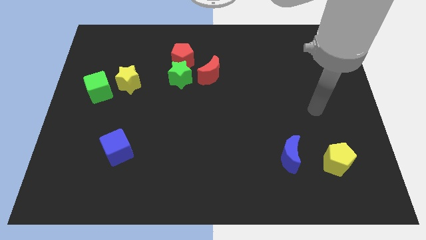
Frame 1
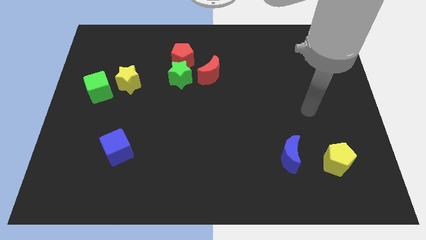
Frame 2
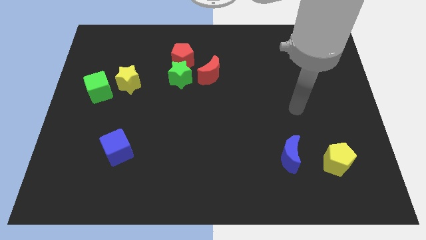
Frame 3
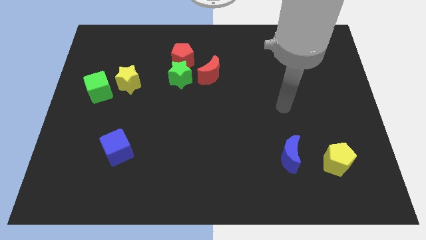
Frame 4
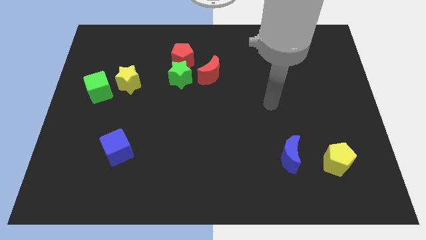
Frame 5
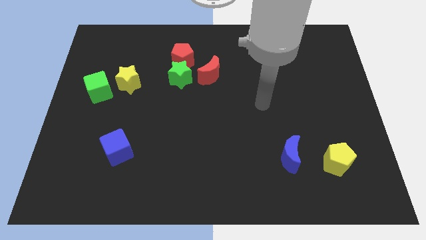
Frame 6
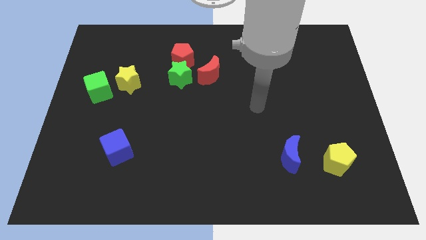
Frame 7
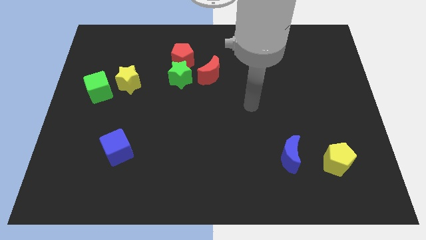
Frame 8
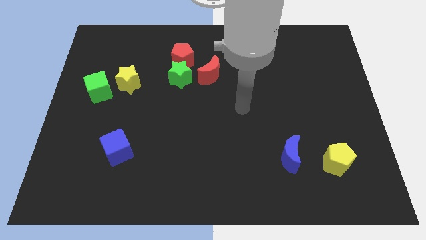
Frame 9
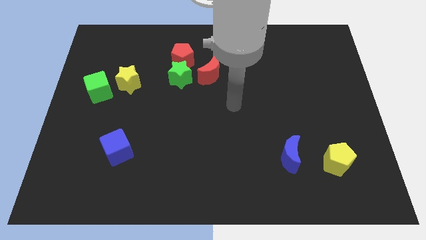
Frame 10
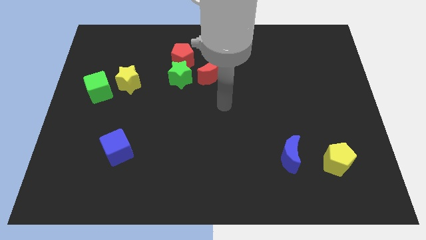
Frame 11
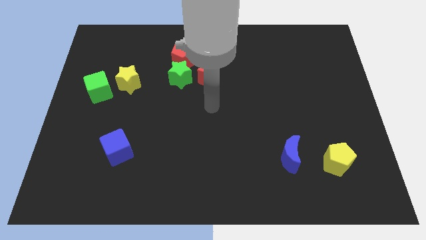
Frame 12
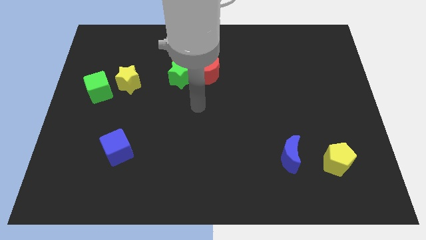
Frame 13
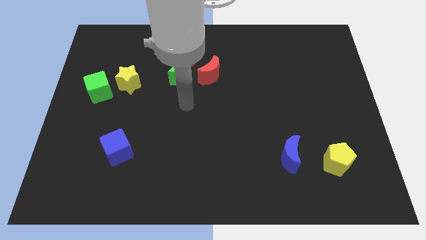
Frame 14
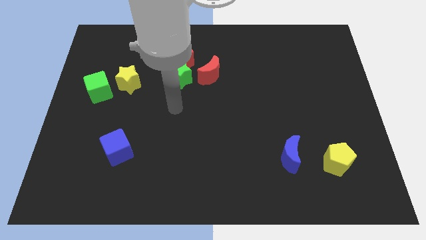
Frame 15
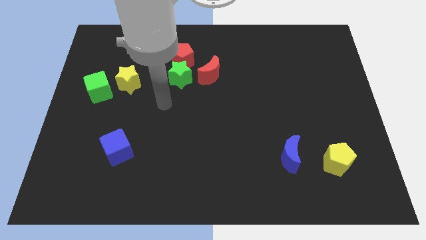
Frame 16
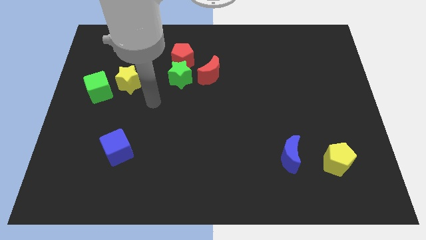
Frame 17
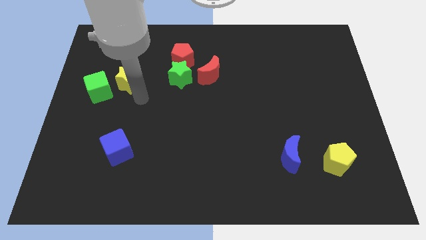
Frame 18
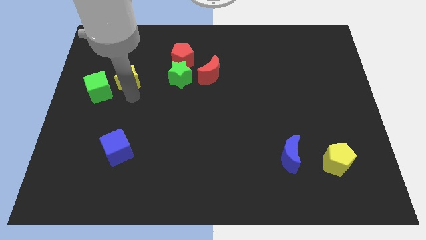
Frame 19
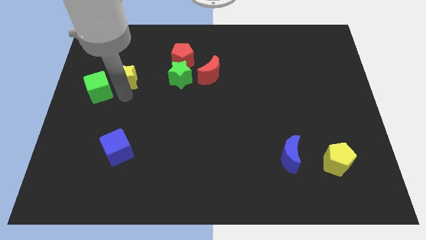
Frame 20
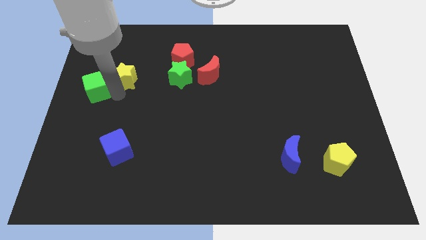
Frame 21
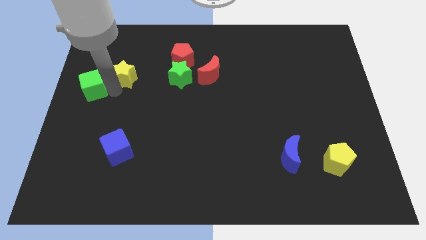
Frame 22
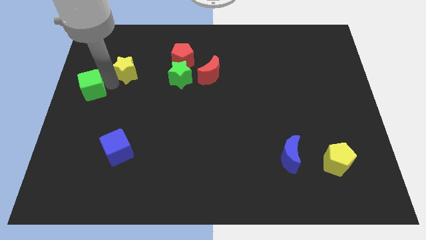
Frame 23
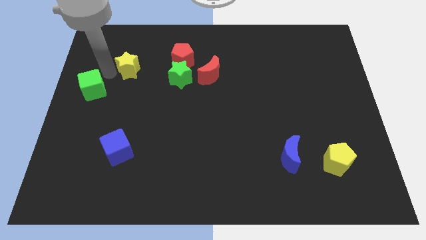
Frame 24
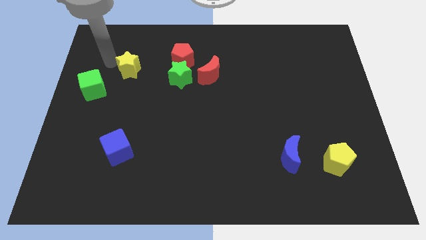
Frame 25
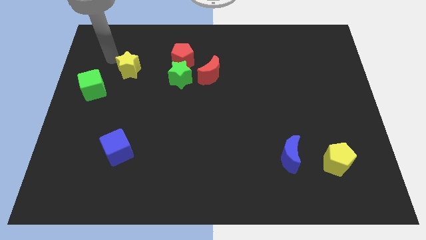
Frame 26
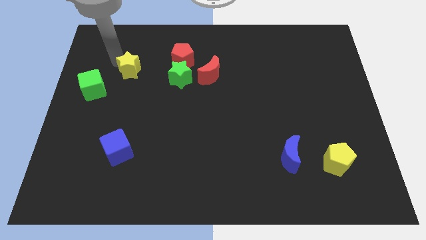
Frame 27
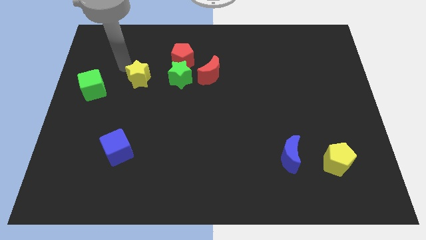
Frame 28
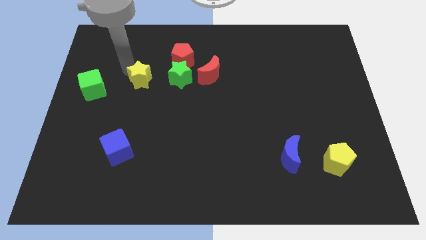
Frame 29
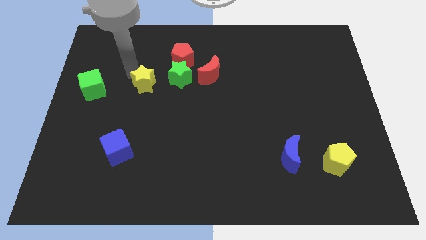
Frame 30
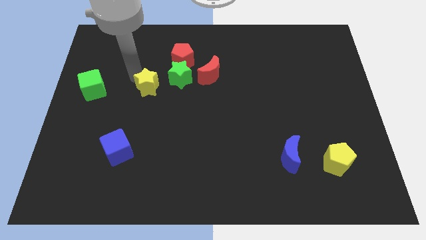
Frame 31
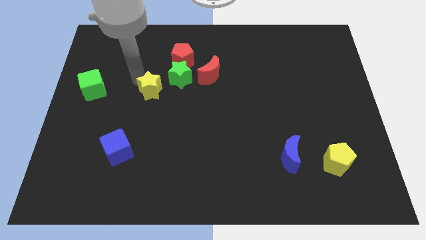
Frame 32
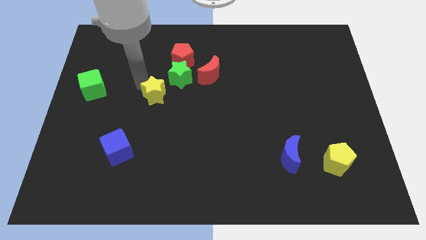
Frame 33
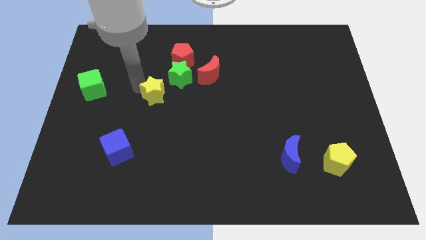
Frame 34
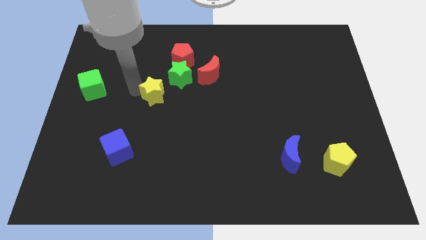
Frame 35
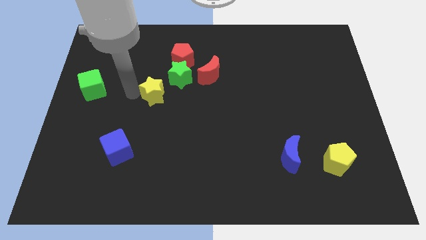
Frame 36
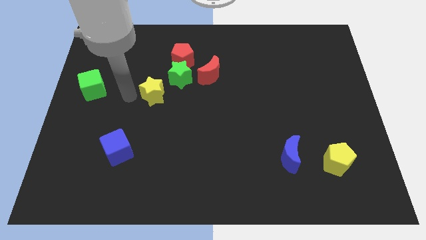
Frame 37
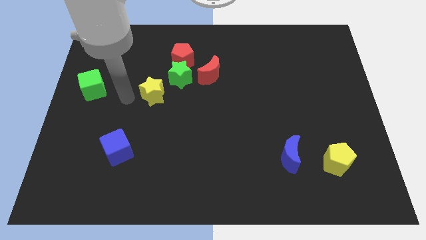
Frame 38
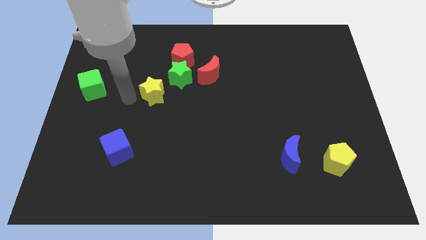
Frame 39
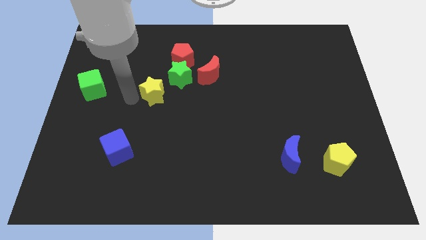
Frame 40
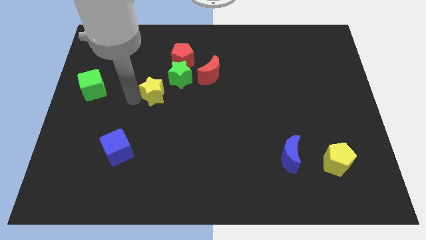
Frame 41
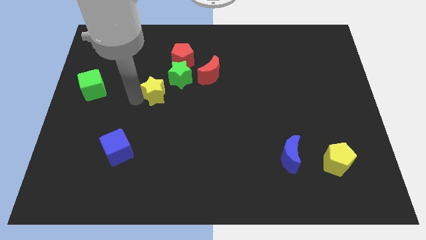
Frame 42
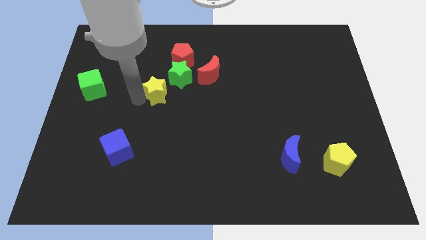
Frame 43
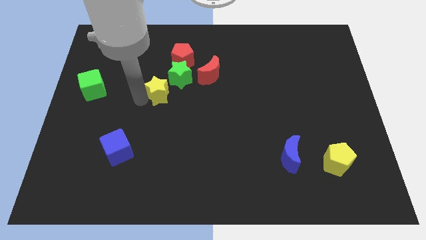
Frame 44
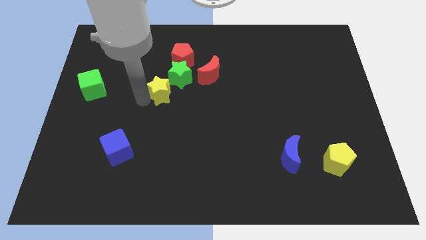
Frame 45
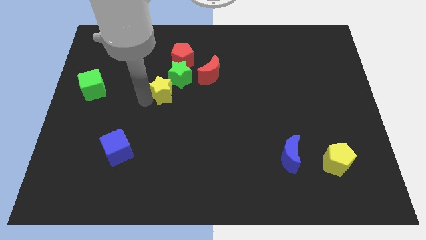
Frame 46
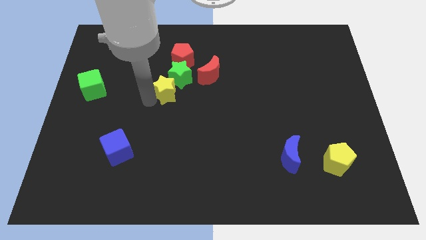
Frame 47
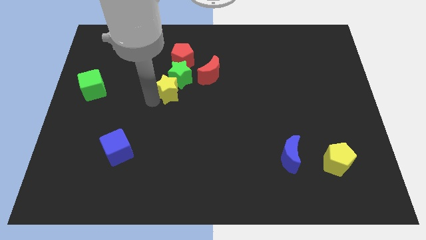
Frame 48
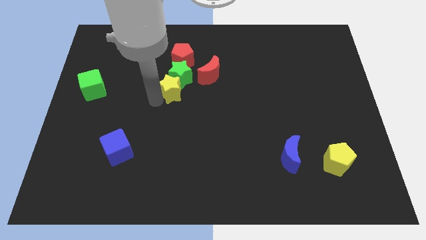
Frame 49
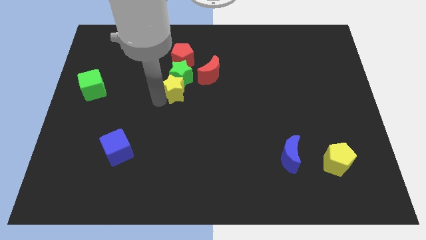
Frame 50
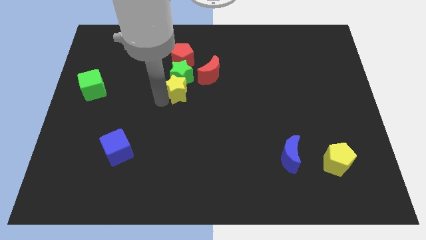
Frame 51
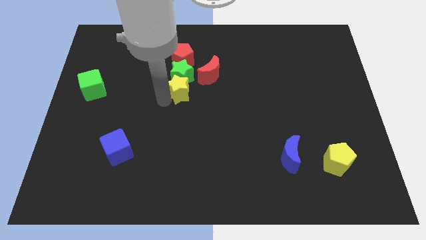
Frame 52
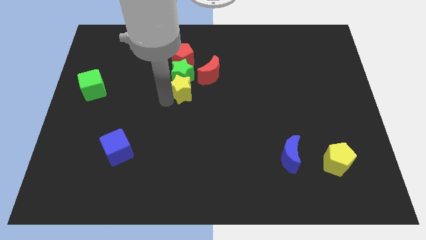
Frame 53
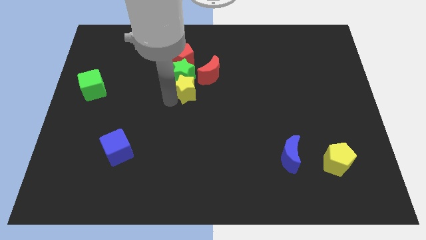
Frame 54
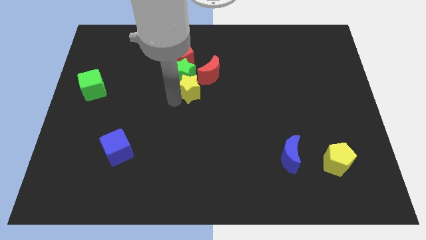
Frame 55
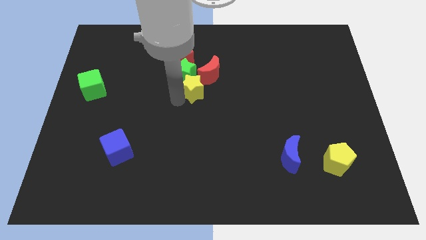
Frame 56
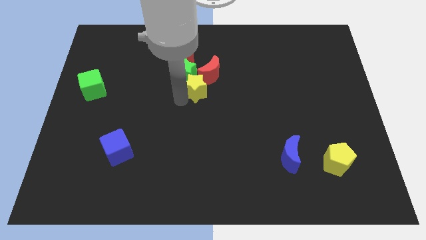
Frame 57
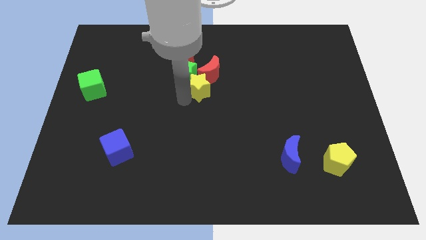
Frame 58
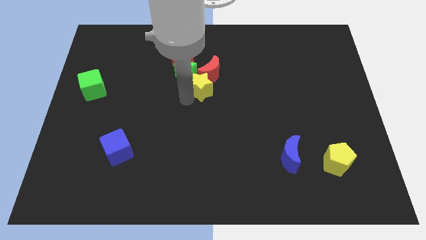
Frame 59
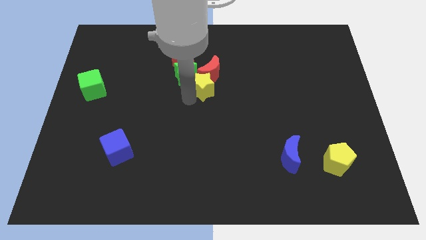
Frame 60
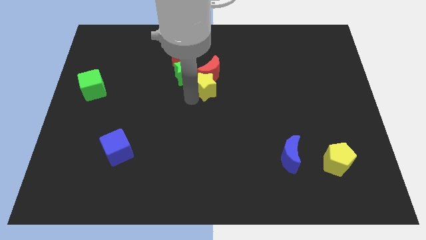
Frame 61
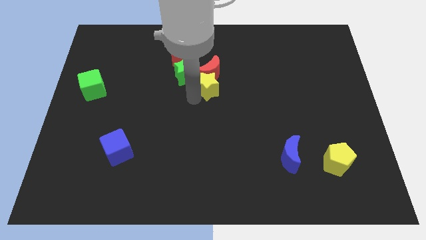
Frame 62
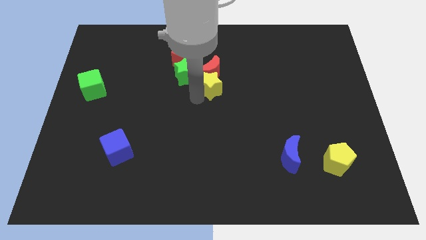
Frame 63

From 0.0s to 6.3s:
move the yellow star right

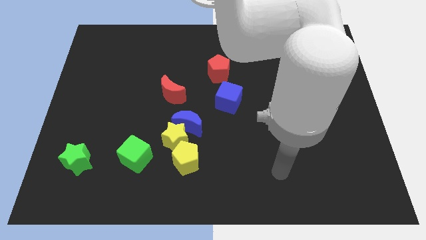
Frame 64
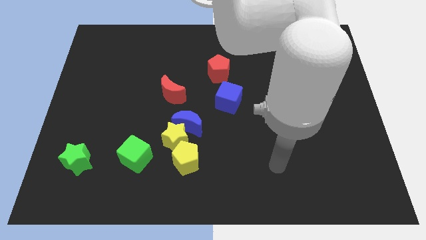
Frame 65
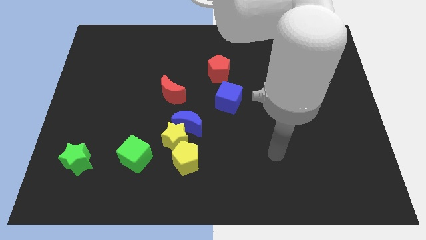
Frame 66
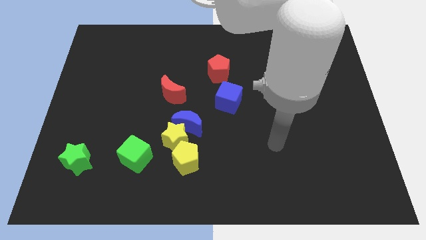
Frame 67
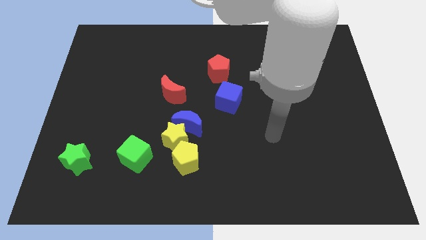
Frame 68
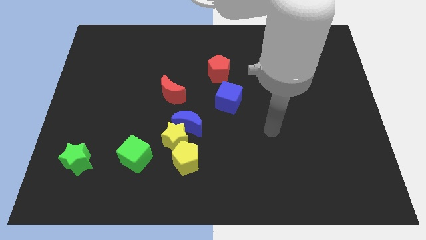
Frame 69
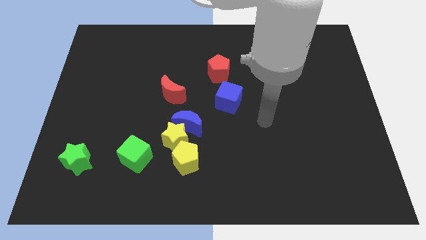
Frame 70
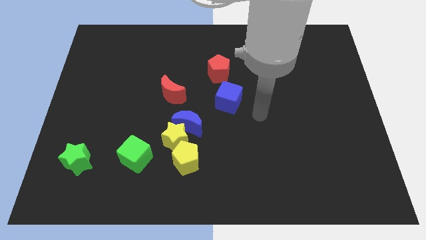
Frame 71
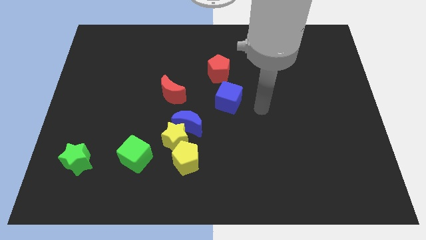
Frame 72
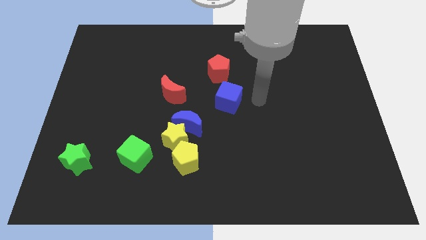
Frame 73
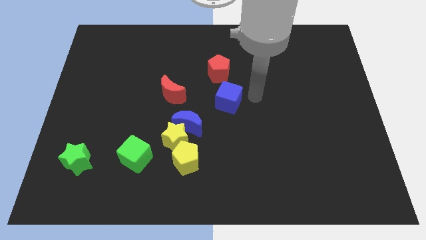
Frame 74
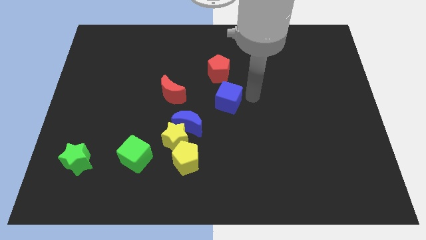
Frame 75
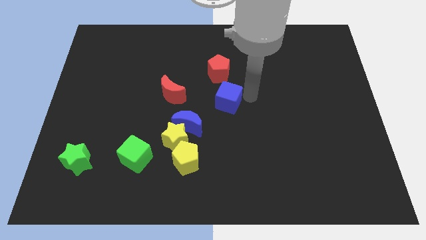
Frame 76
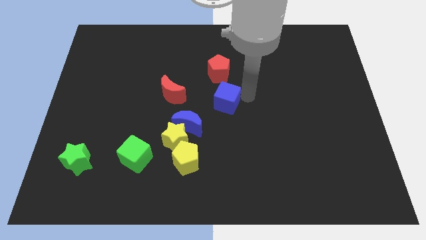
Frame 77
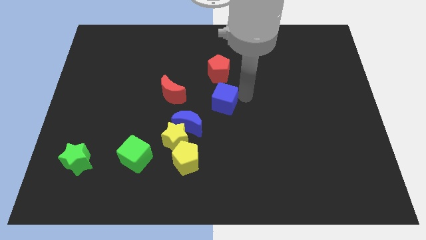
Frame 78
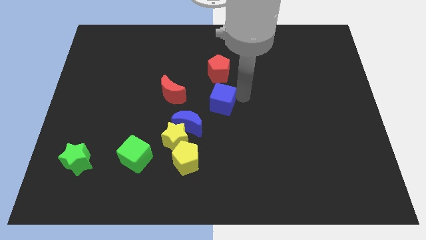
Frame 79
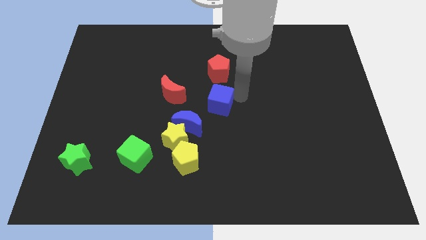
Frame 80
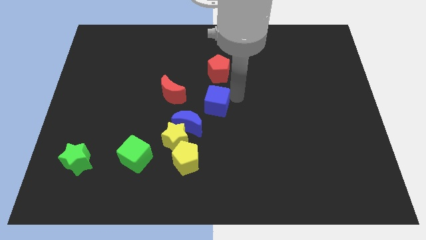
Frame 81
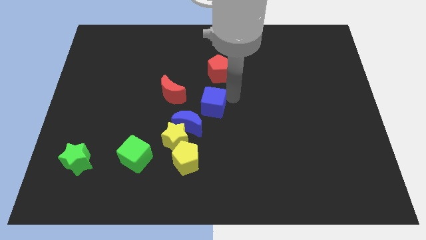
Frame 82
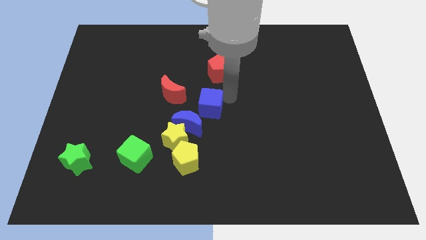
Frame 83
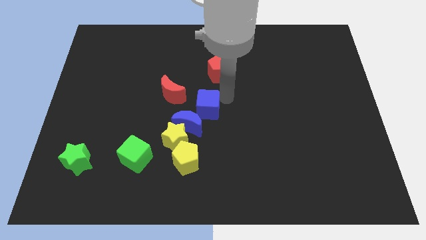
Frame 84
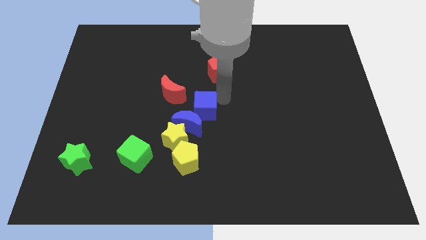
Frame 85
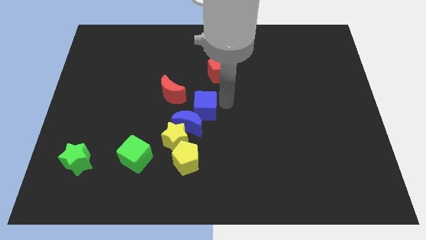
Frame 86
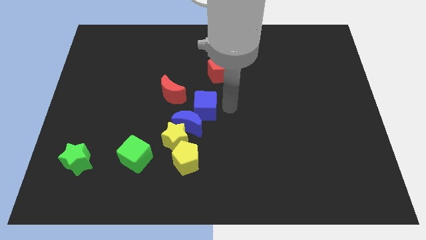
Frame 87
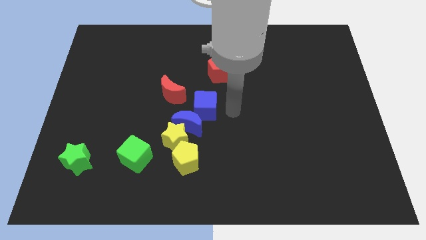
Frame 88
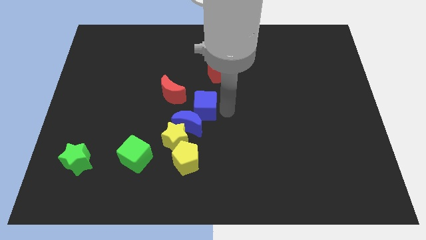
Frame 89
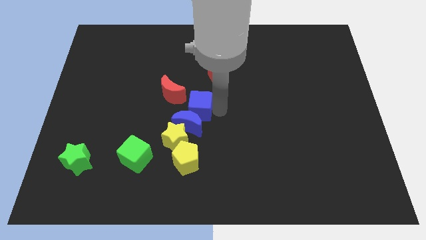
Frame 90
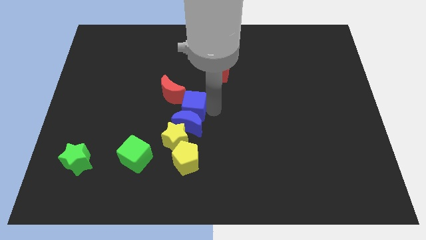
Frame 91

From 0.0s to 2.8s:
push the blue cube to the left a little
